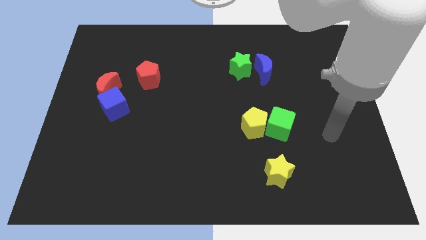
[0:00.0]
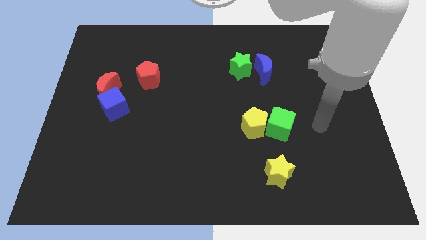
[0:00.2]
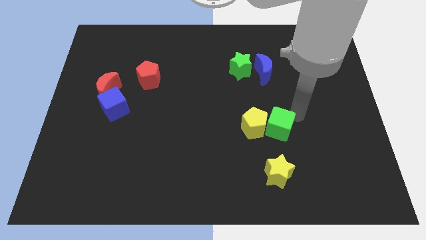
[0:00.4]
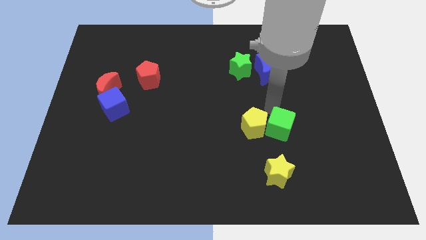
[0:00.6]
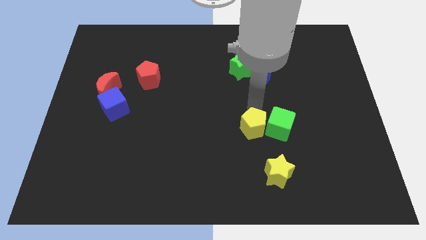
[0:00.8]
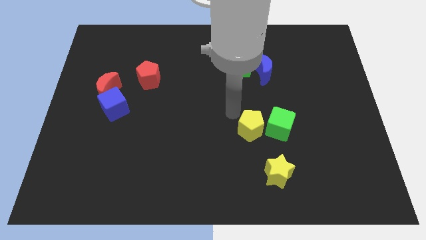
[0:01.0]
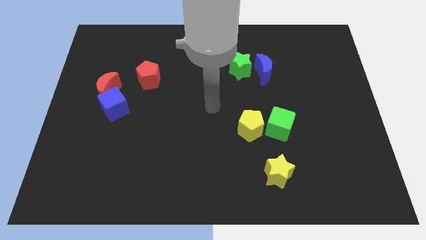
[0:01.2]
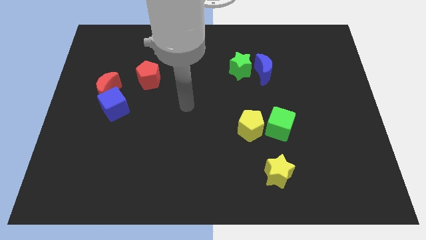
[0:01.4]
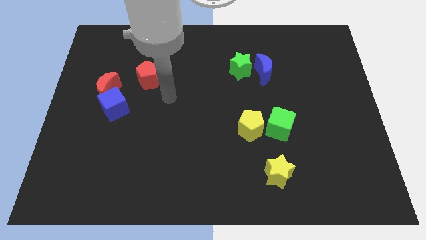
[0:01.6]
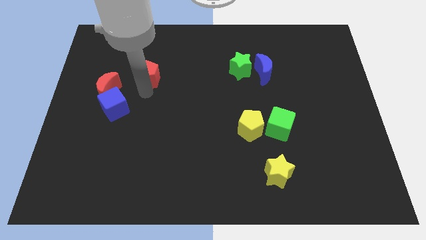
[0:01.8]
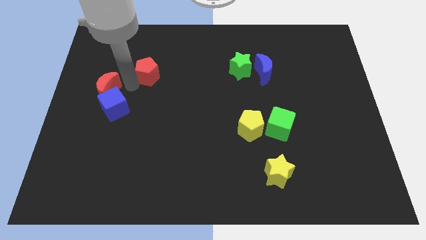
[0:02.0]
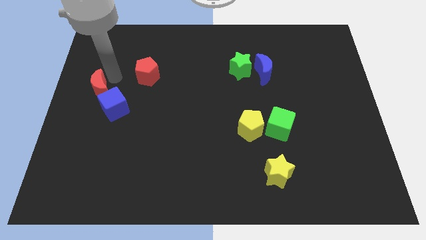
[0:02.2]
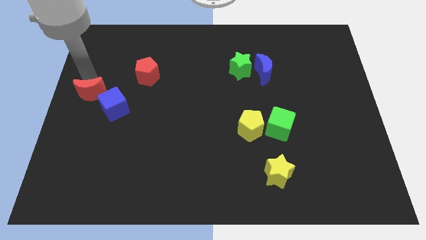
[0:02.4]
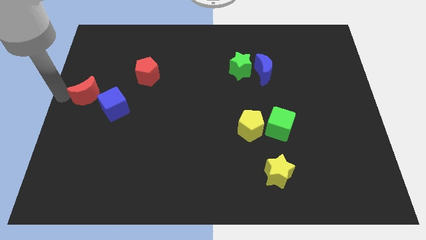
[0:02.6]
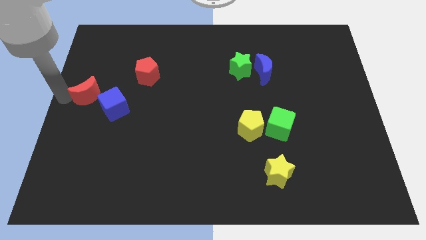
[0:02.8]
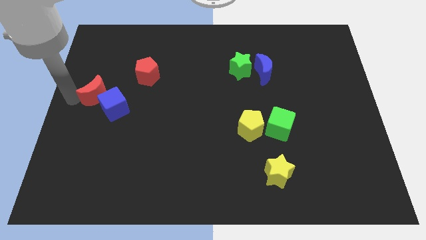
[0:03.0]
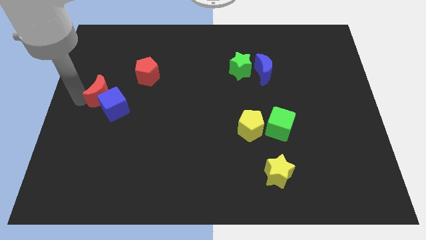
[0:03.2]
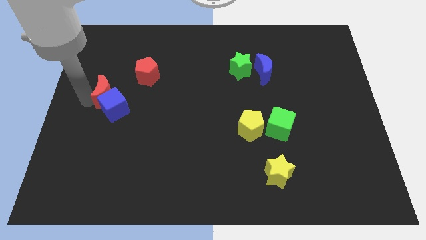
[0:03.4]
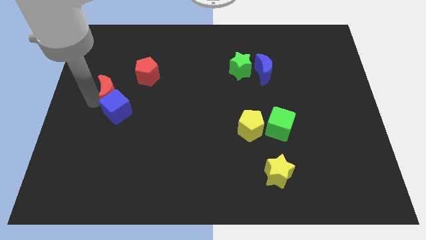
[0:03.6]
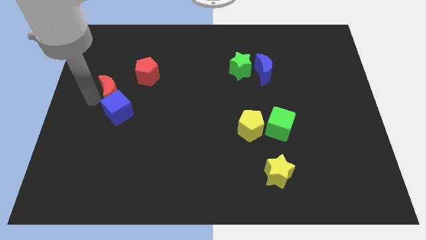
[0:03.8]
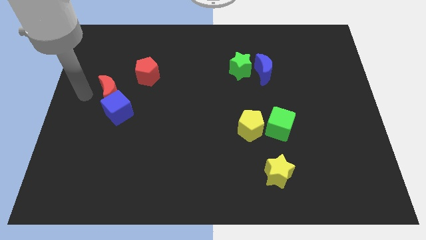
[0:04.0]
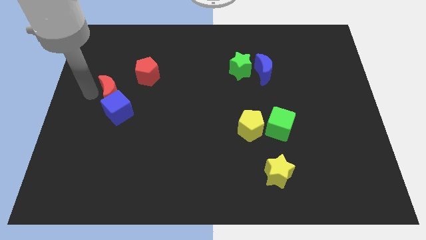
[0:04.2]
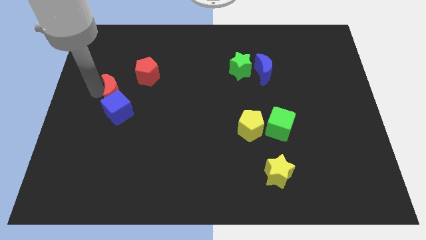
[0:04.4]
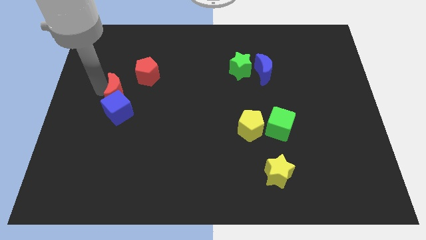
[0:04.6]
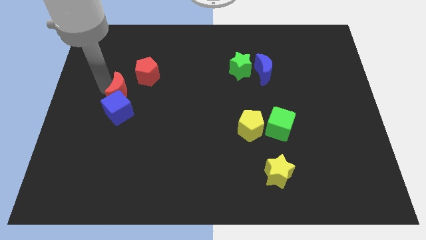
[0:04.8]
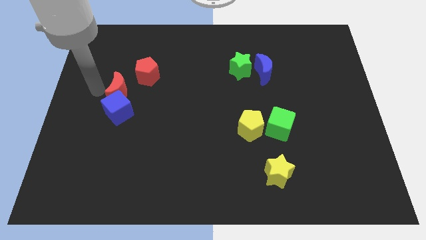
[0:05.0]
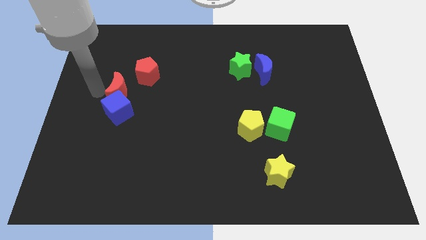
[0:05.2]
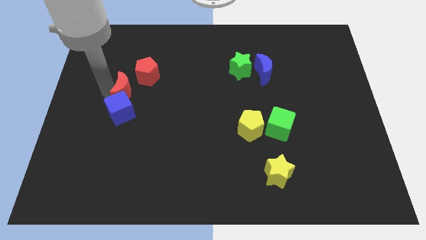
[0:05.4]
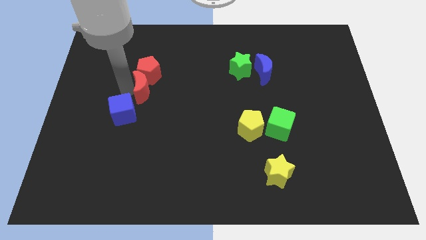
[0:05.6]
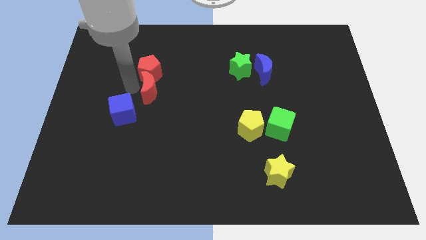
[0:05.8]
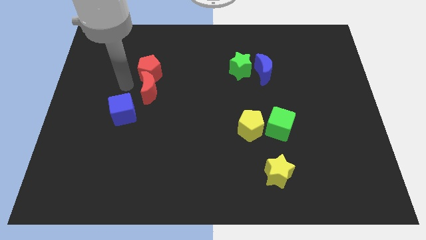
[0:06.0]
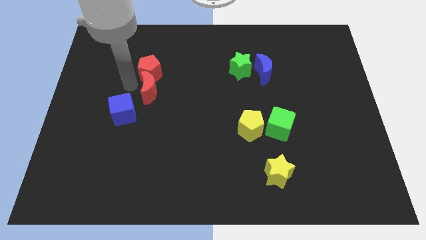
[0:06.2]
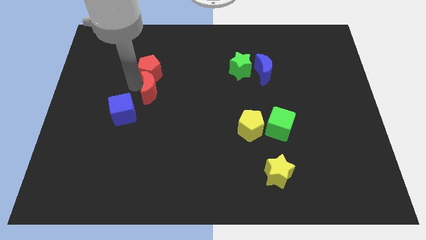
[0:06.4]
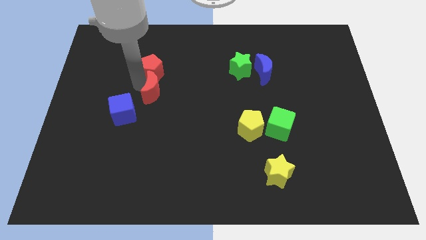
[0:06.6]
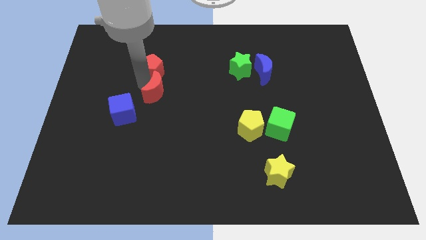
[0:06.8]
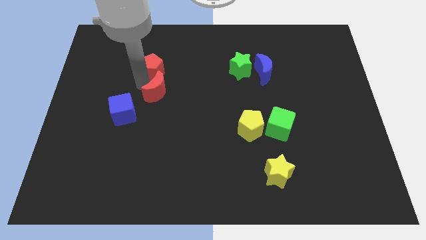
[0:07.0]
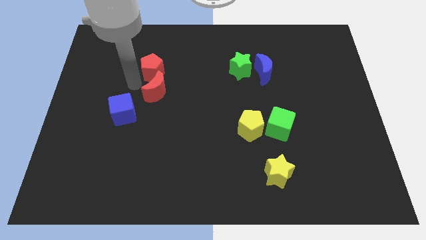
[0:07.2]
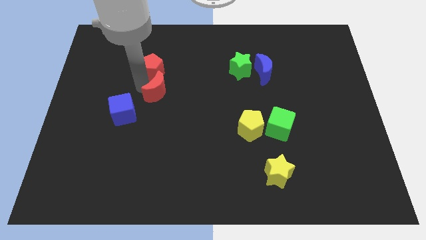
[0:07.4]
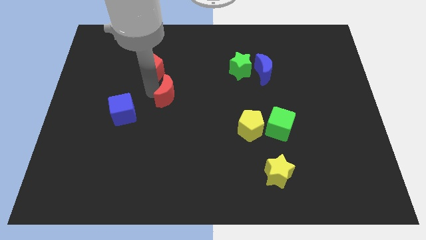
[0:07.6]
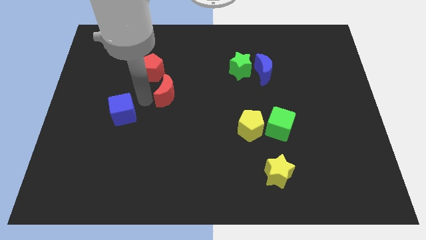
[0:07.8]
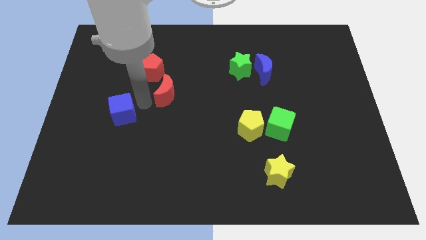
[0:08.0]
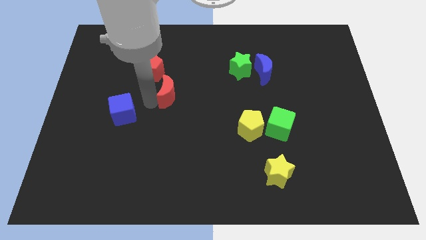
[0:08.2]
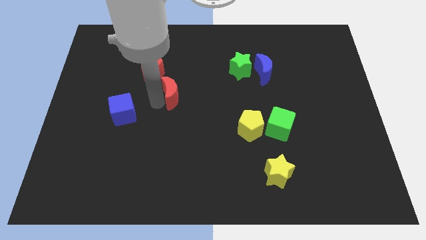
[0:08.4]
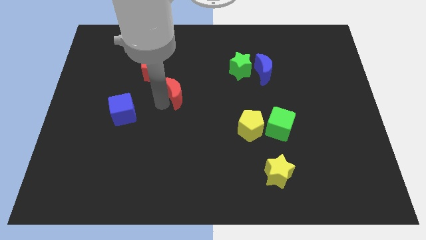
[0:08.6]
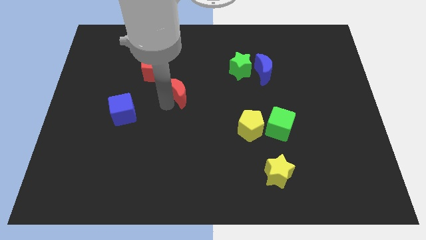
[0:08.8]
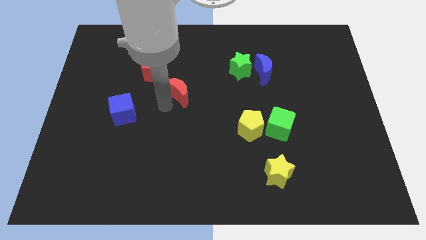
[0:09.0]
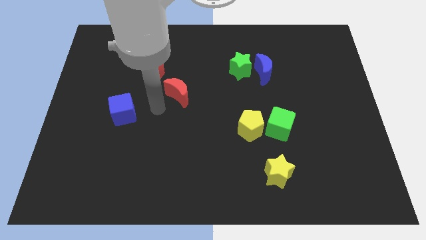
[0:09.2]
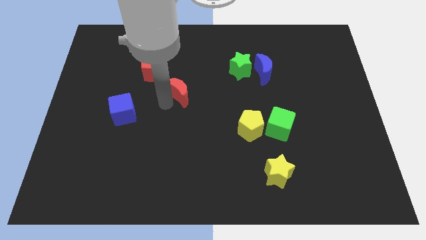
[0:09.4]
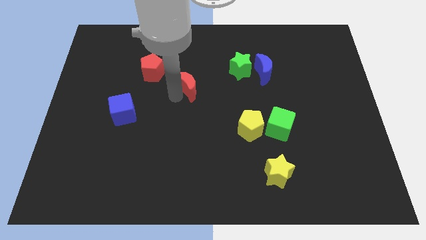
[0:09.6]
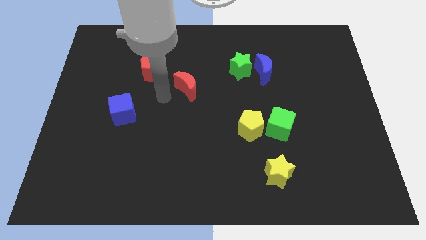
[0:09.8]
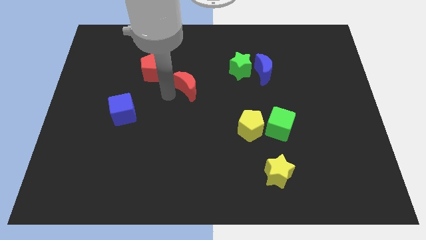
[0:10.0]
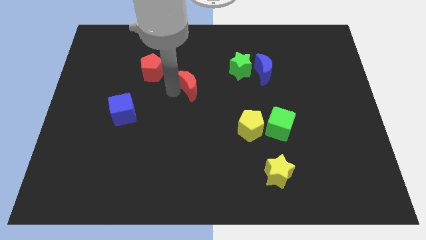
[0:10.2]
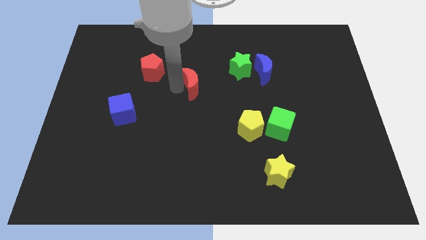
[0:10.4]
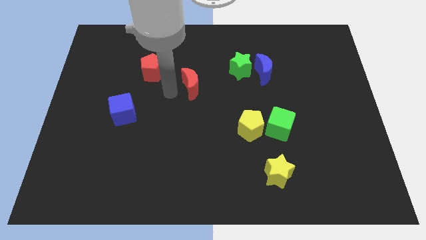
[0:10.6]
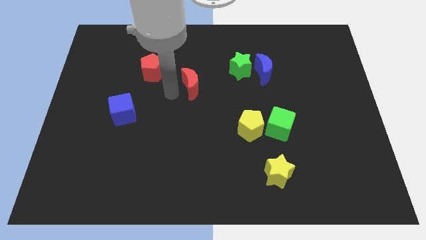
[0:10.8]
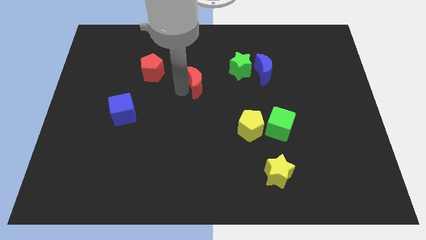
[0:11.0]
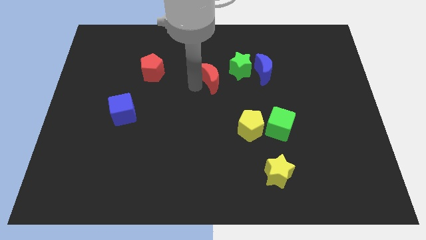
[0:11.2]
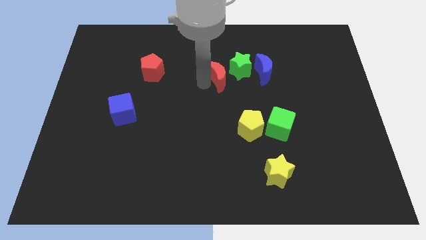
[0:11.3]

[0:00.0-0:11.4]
put the red moon to the green star

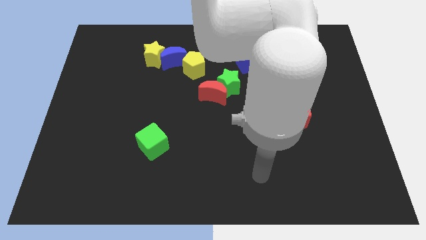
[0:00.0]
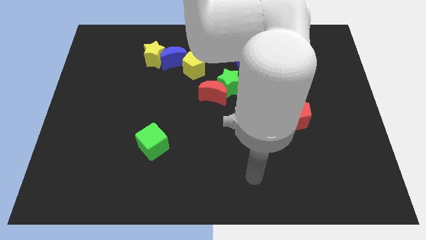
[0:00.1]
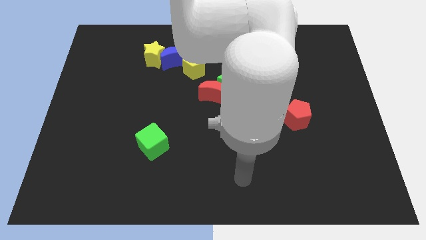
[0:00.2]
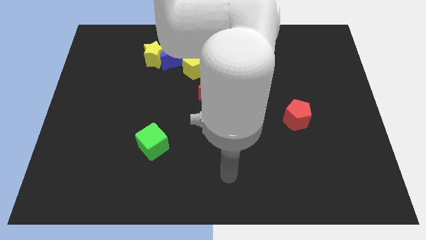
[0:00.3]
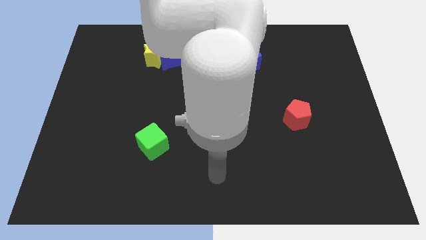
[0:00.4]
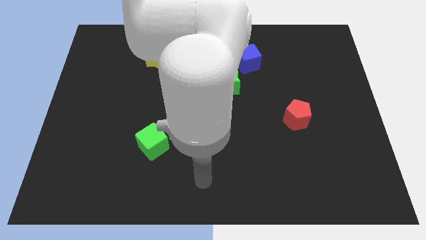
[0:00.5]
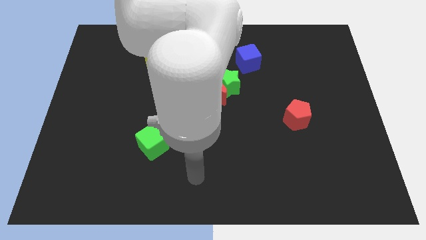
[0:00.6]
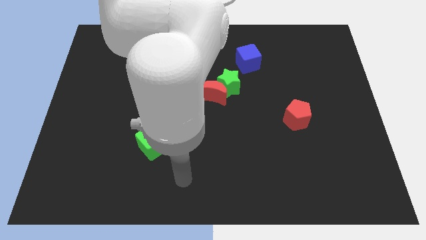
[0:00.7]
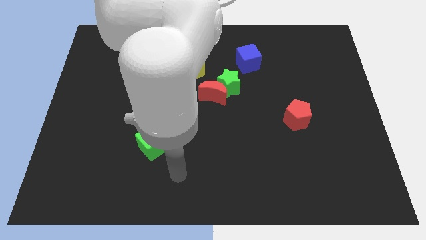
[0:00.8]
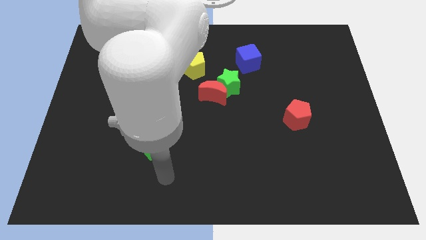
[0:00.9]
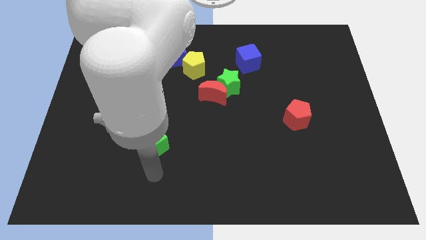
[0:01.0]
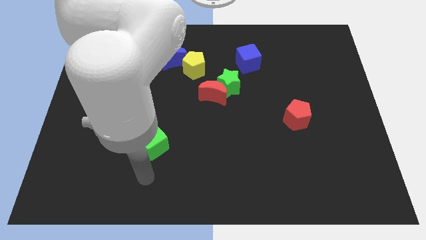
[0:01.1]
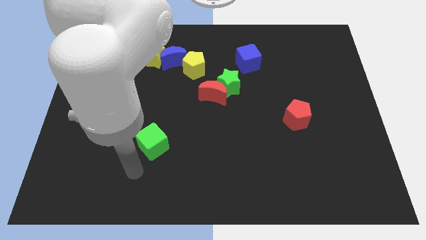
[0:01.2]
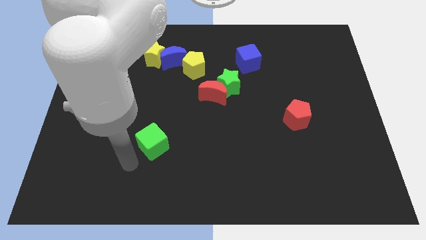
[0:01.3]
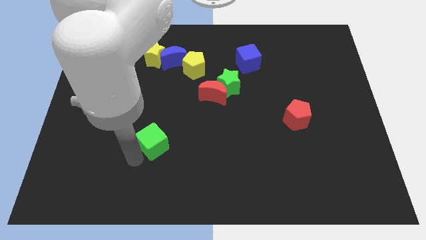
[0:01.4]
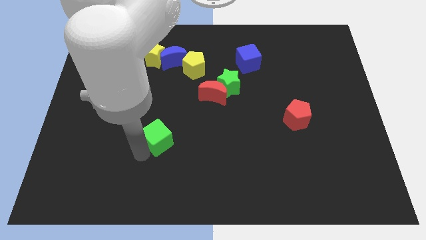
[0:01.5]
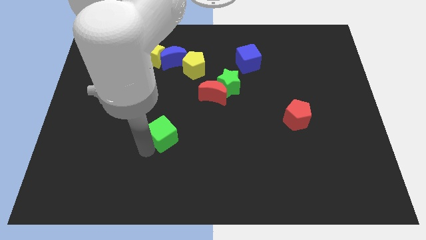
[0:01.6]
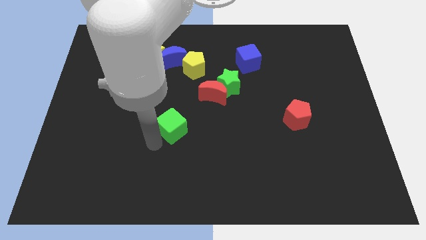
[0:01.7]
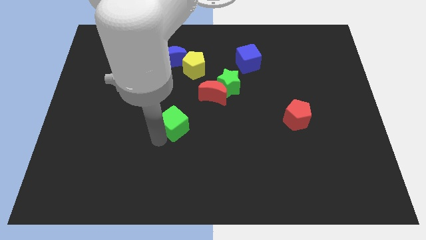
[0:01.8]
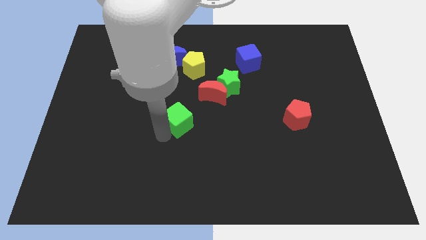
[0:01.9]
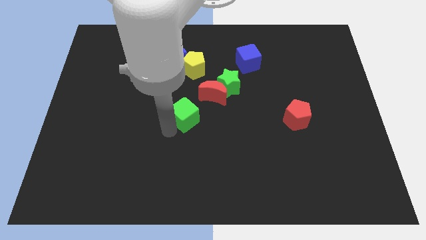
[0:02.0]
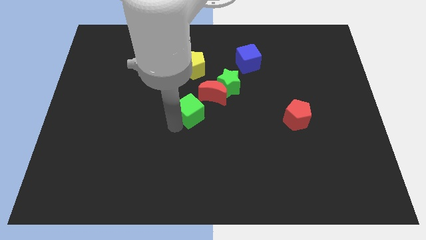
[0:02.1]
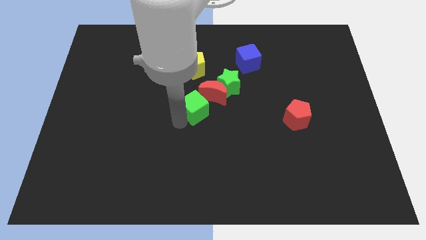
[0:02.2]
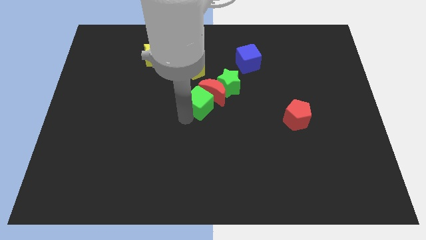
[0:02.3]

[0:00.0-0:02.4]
push the green cube towards the red moon
